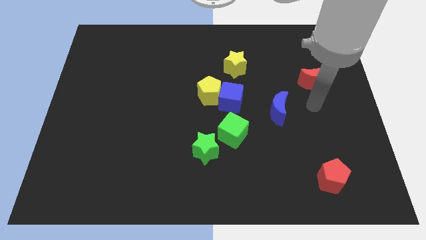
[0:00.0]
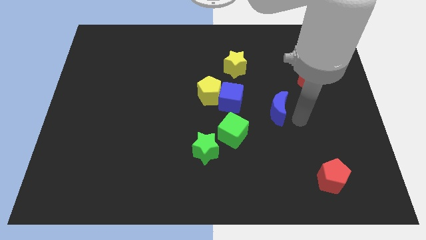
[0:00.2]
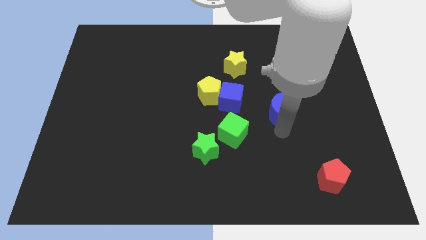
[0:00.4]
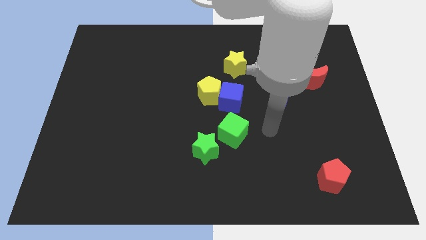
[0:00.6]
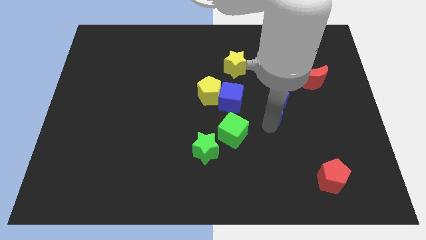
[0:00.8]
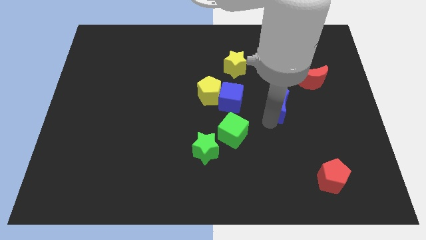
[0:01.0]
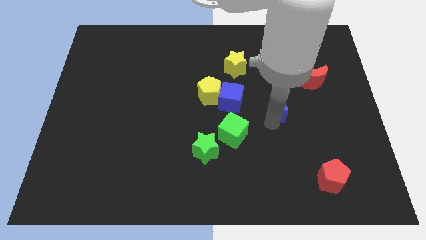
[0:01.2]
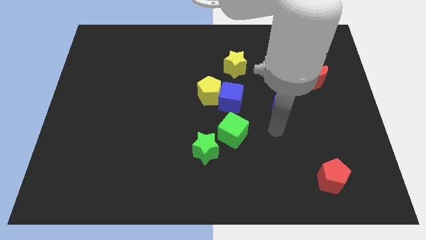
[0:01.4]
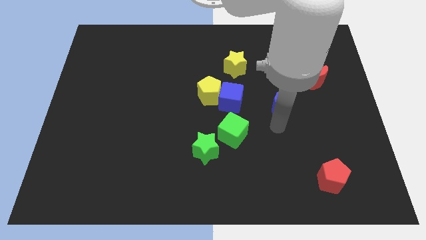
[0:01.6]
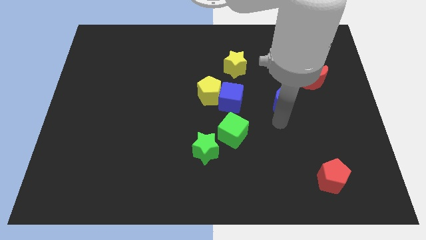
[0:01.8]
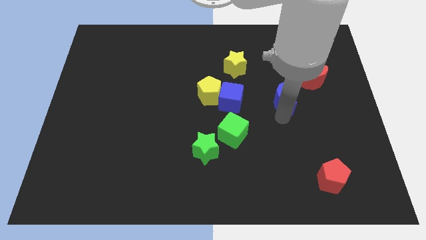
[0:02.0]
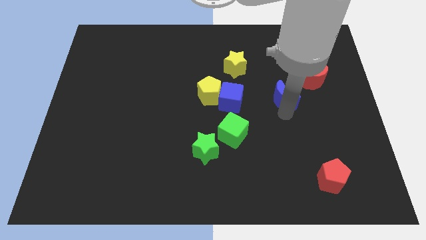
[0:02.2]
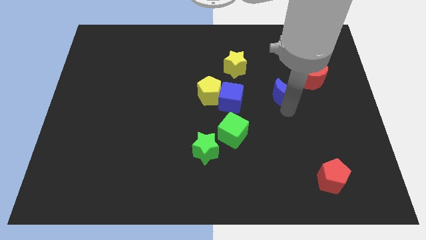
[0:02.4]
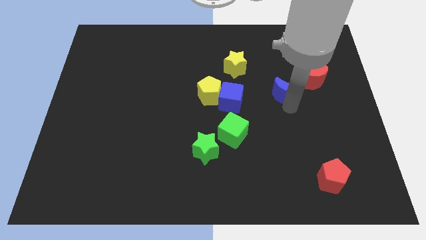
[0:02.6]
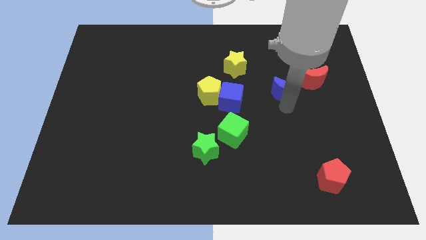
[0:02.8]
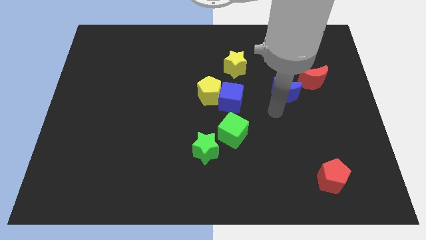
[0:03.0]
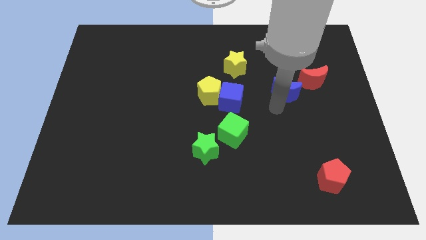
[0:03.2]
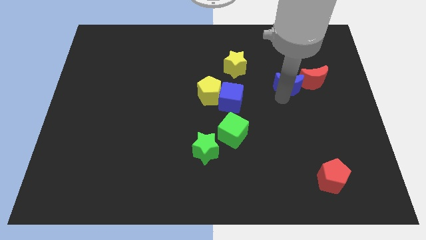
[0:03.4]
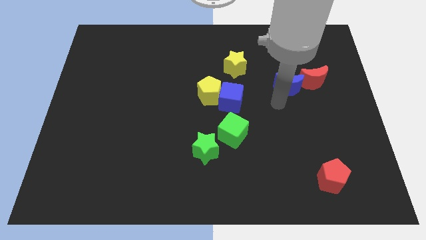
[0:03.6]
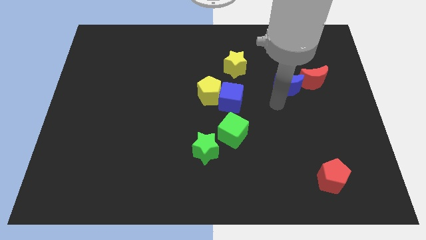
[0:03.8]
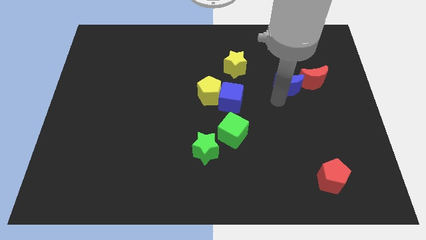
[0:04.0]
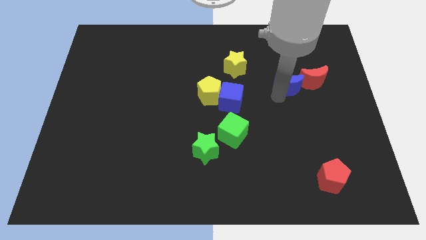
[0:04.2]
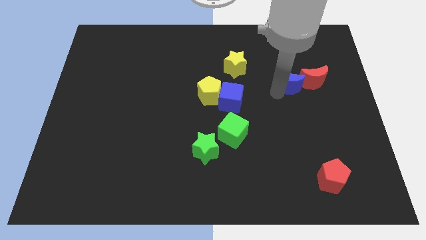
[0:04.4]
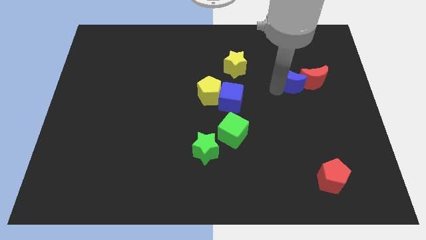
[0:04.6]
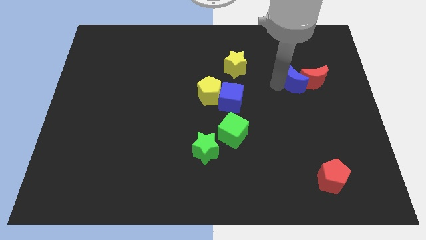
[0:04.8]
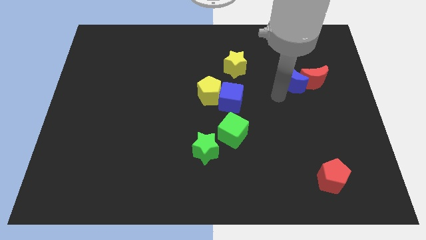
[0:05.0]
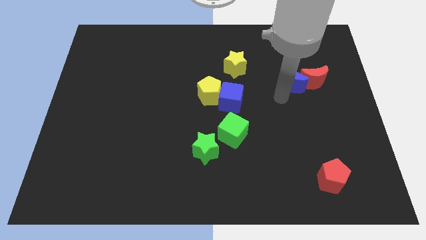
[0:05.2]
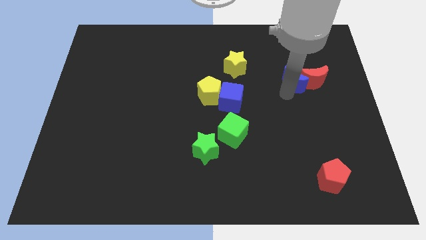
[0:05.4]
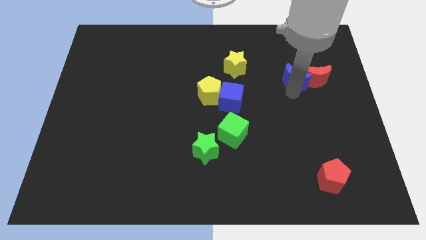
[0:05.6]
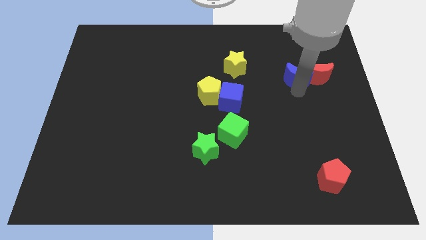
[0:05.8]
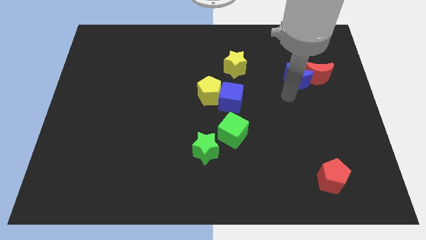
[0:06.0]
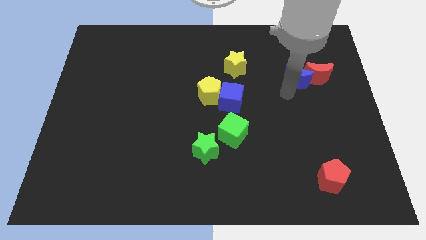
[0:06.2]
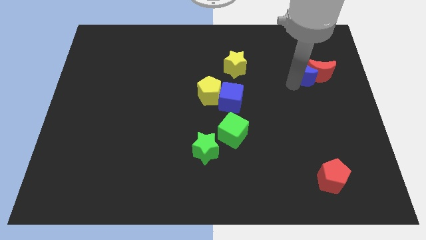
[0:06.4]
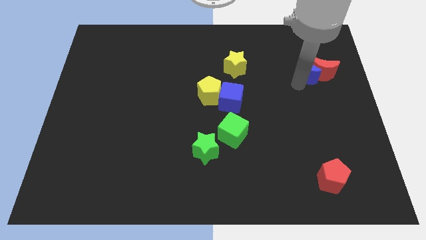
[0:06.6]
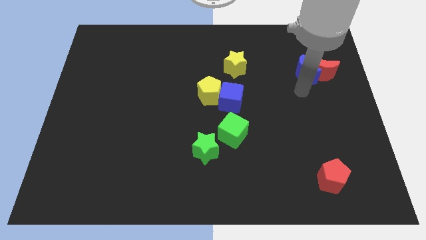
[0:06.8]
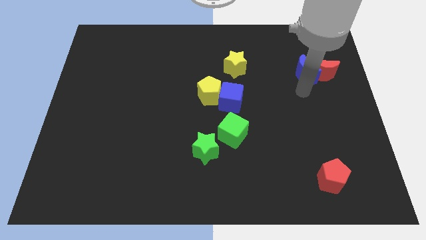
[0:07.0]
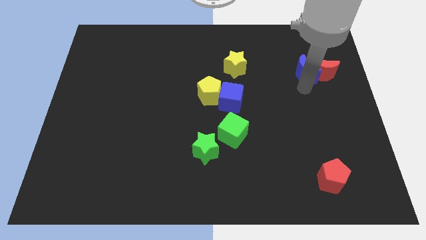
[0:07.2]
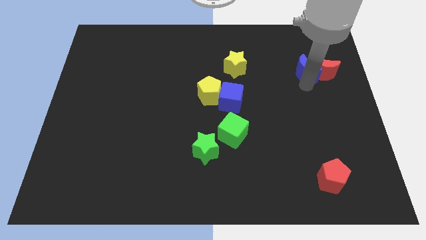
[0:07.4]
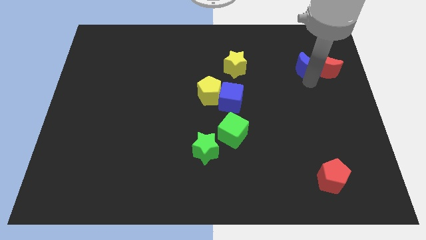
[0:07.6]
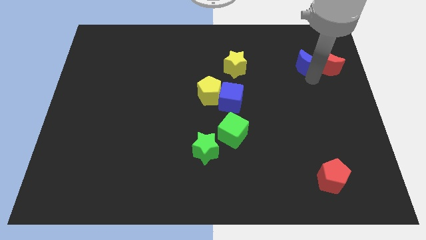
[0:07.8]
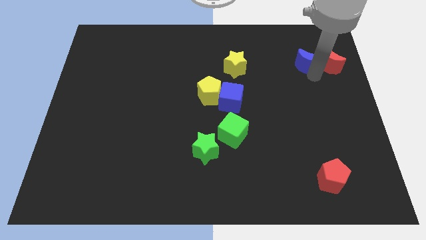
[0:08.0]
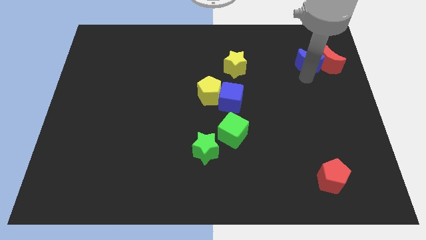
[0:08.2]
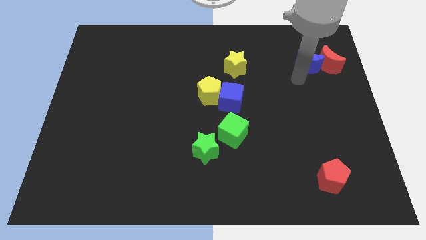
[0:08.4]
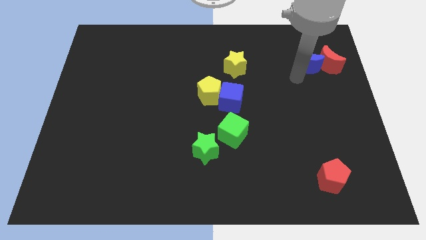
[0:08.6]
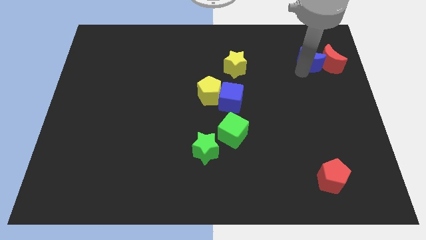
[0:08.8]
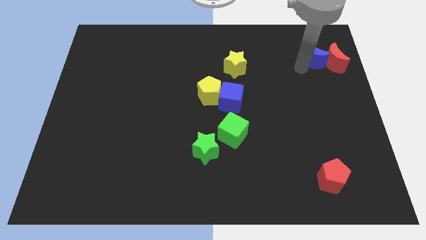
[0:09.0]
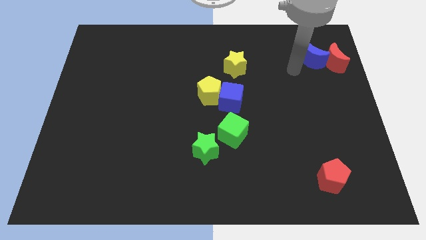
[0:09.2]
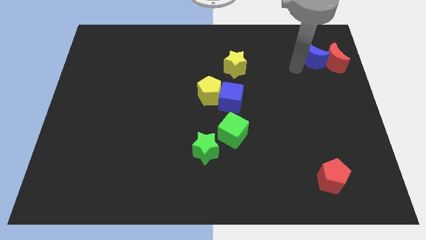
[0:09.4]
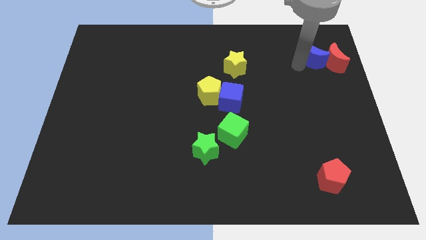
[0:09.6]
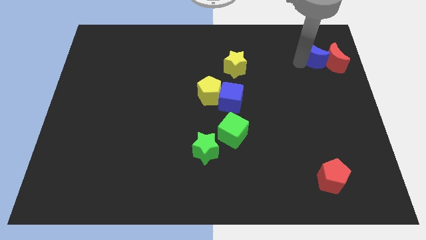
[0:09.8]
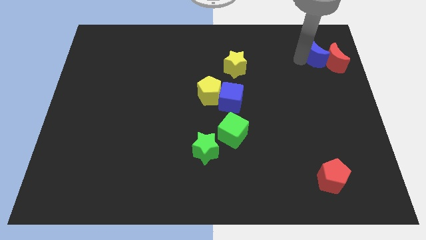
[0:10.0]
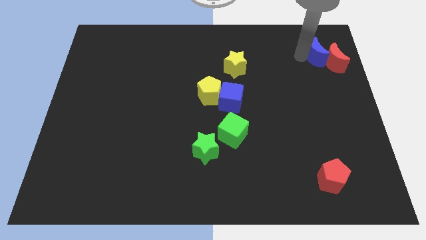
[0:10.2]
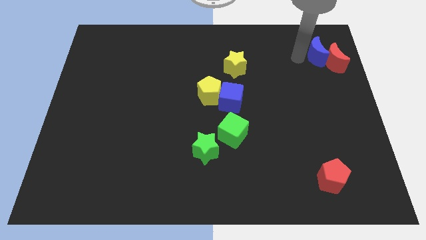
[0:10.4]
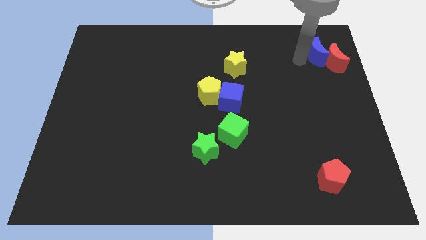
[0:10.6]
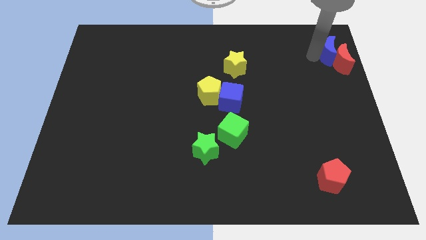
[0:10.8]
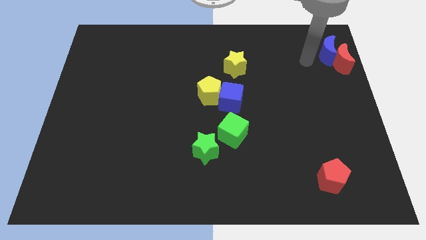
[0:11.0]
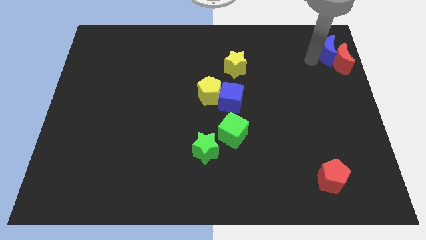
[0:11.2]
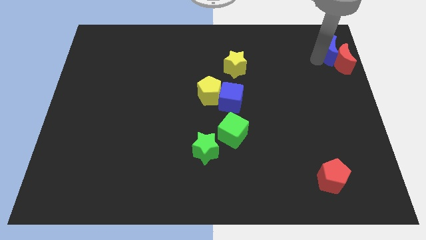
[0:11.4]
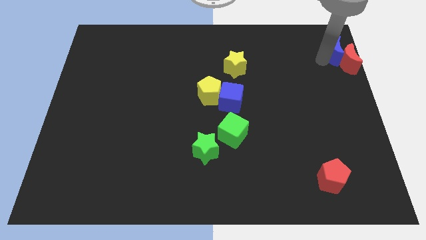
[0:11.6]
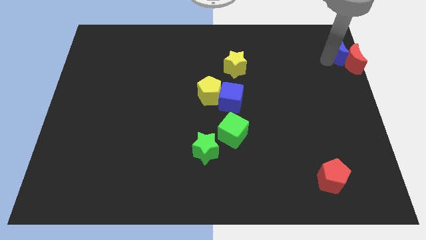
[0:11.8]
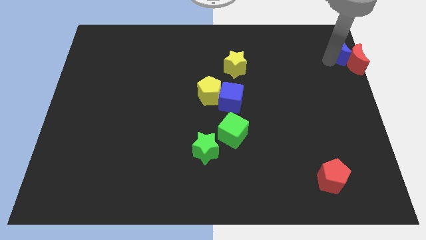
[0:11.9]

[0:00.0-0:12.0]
put the blue moon to the top right of the board
